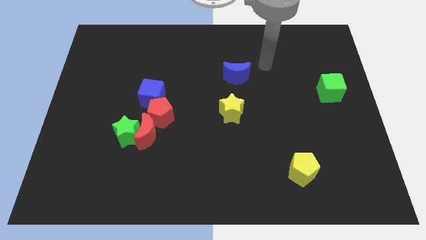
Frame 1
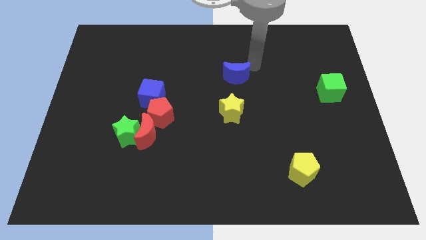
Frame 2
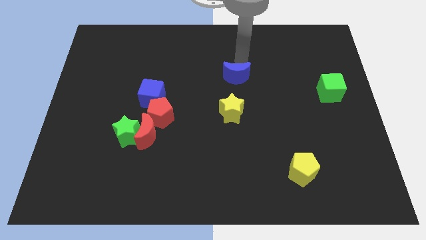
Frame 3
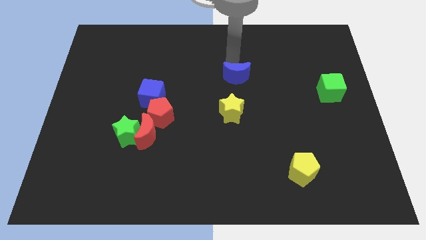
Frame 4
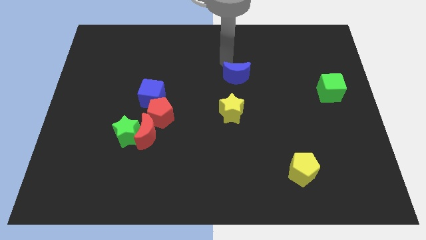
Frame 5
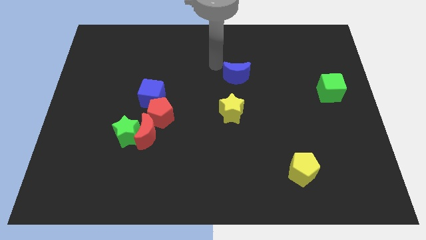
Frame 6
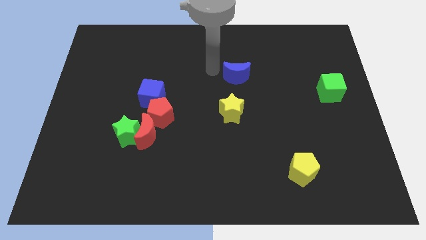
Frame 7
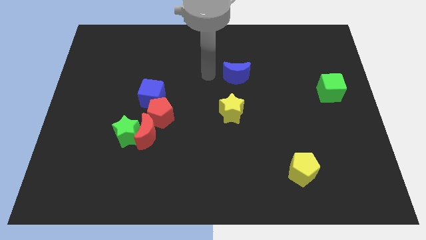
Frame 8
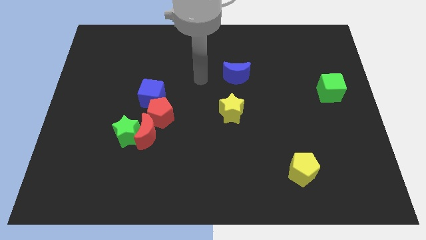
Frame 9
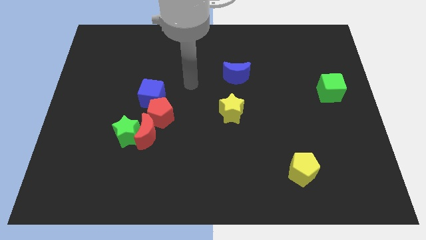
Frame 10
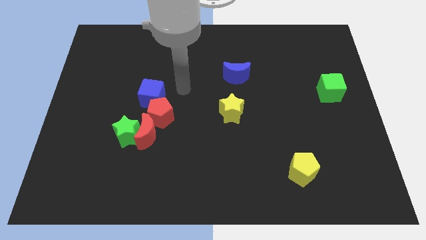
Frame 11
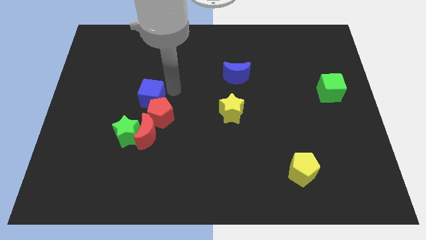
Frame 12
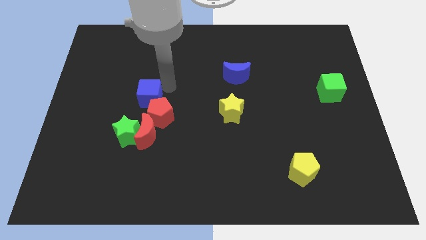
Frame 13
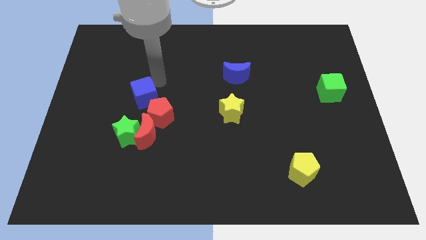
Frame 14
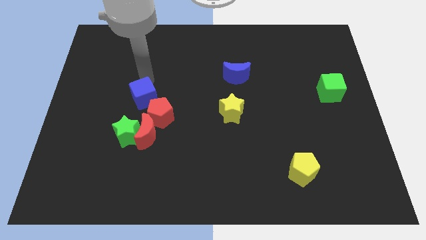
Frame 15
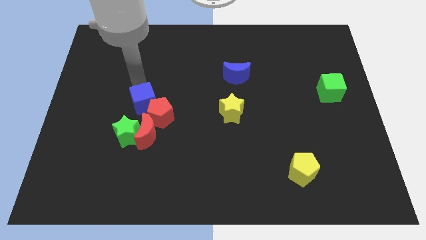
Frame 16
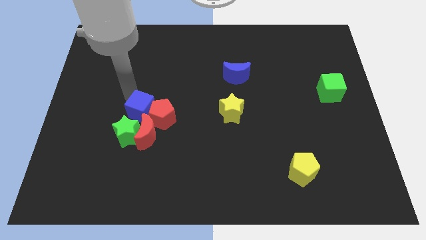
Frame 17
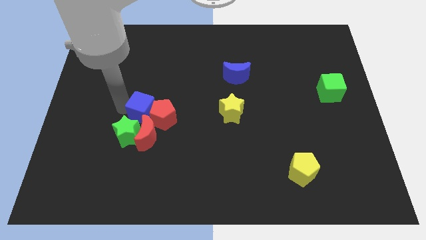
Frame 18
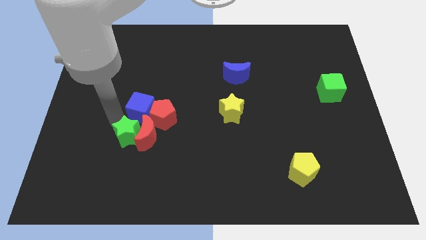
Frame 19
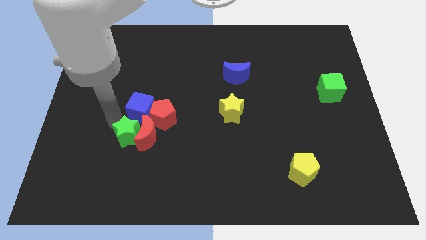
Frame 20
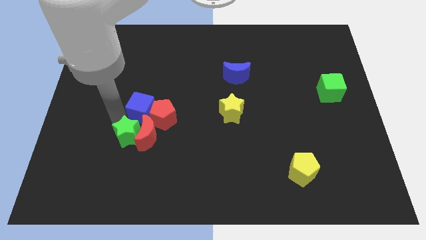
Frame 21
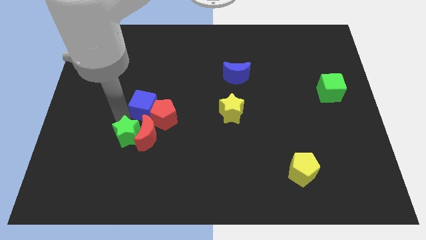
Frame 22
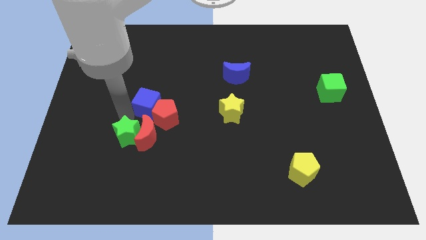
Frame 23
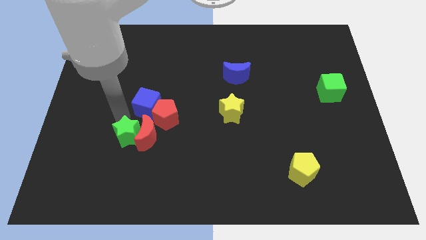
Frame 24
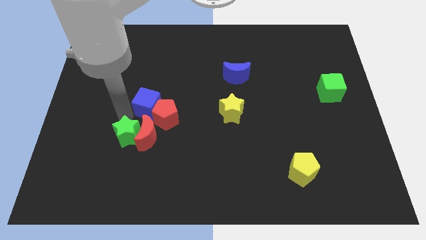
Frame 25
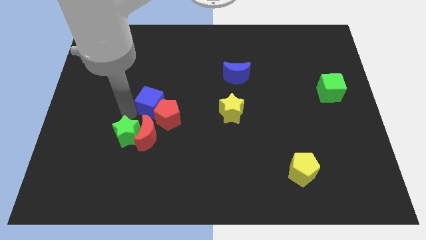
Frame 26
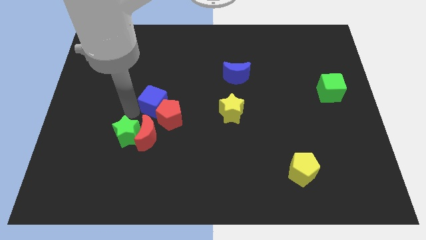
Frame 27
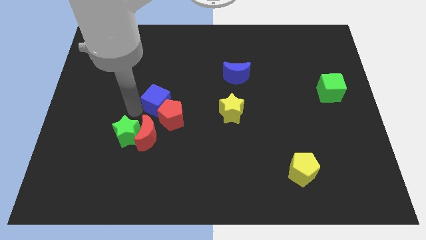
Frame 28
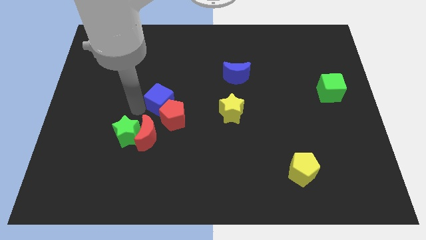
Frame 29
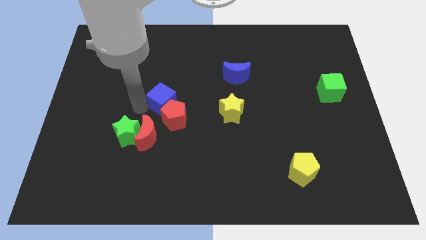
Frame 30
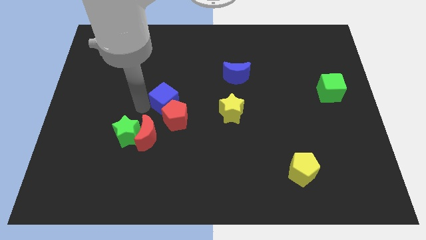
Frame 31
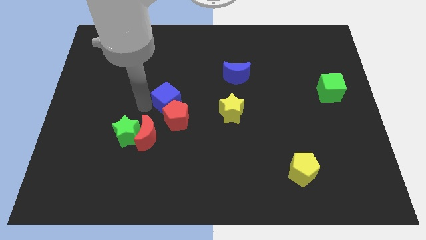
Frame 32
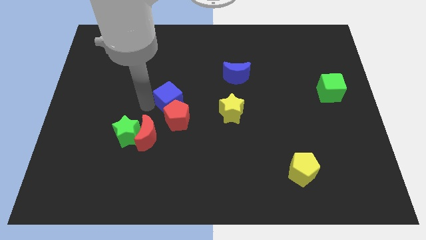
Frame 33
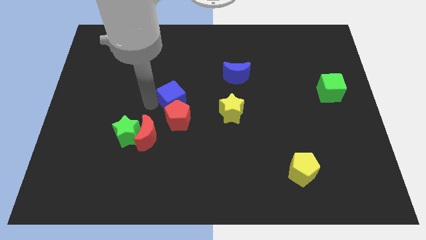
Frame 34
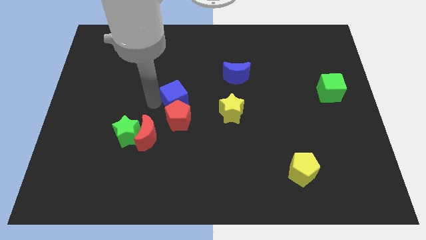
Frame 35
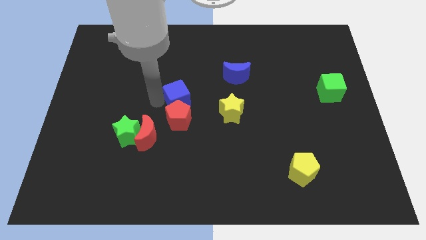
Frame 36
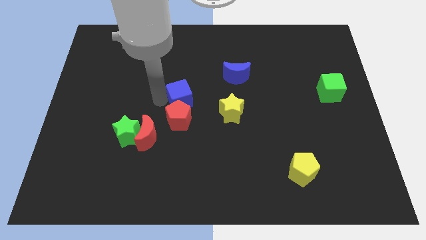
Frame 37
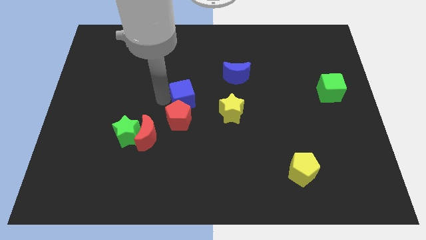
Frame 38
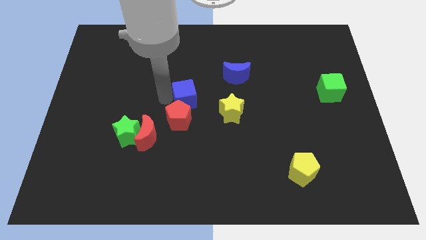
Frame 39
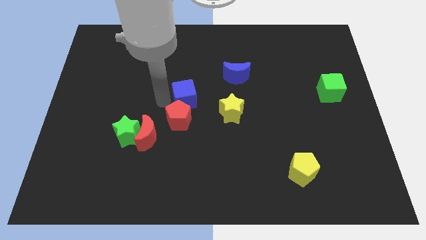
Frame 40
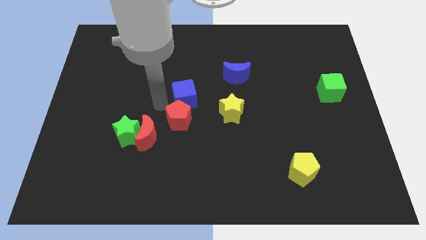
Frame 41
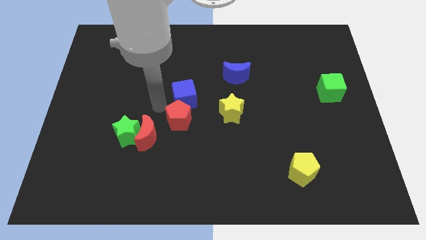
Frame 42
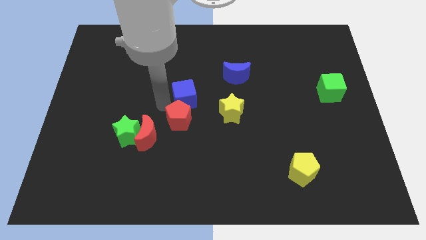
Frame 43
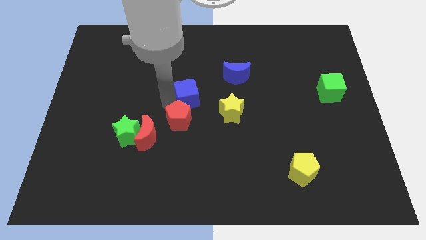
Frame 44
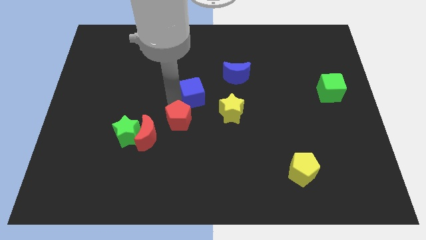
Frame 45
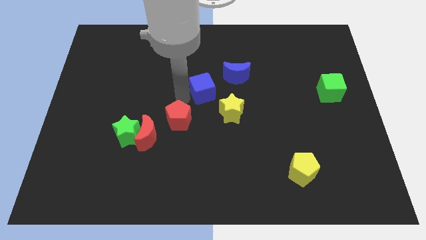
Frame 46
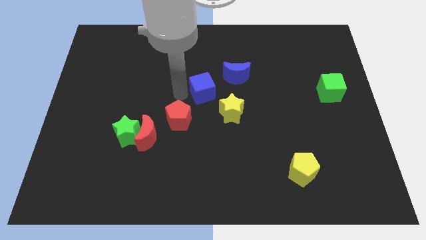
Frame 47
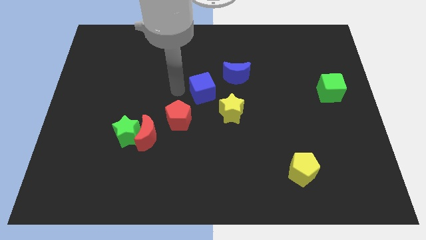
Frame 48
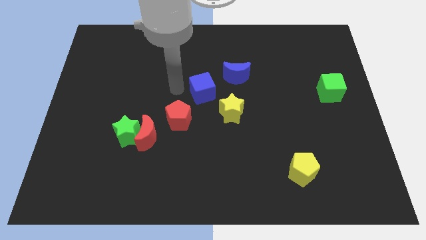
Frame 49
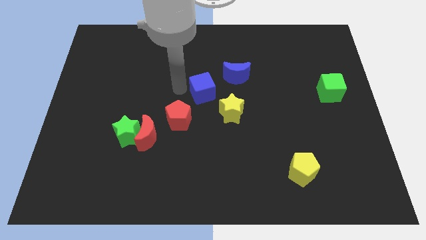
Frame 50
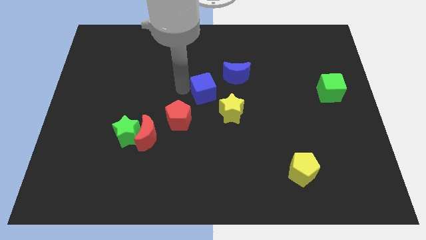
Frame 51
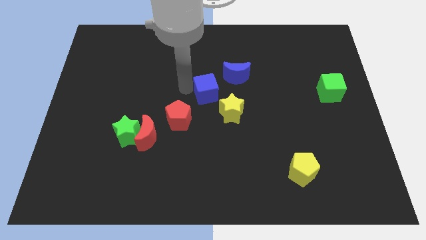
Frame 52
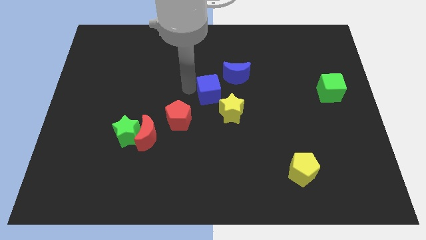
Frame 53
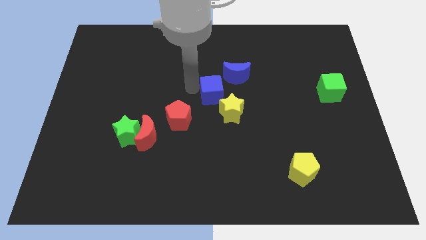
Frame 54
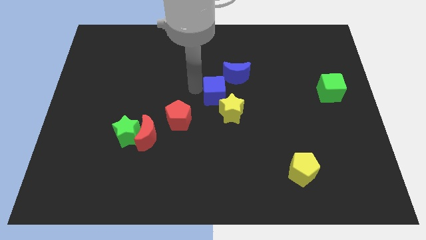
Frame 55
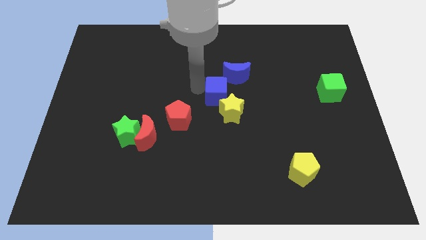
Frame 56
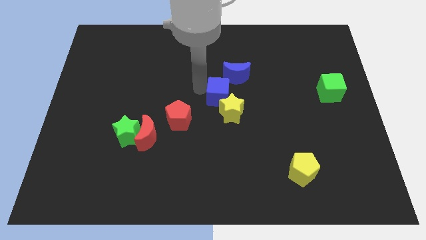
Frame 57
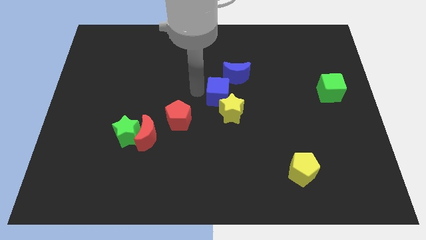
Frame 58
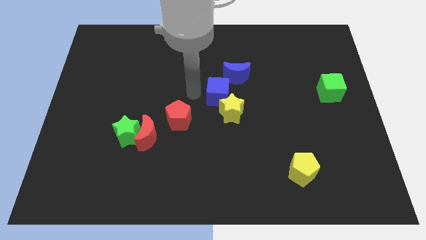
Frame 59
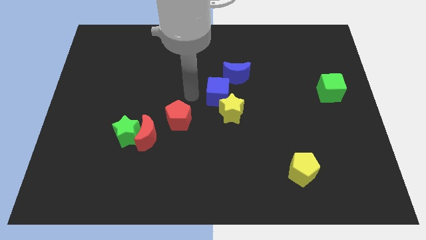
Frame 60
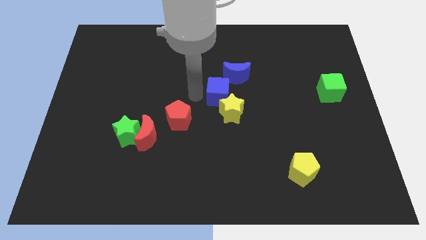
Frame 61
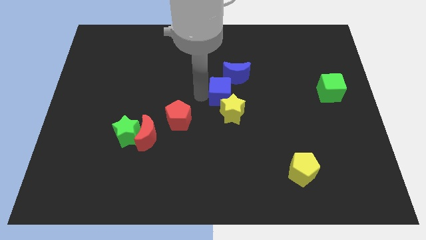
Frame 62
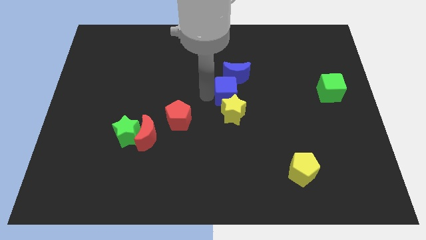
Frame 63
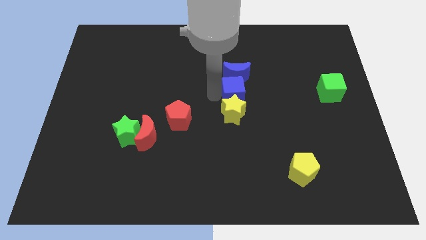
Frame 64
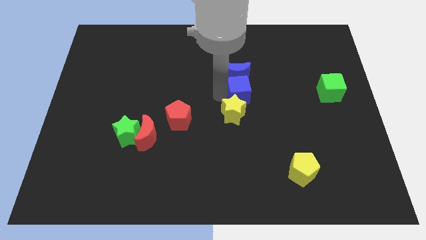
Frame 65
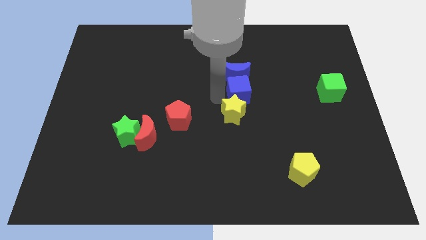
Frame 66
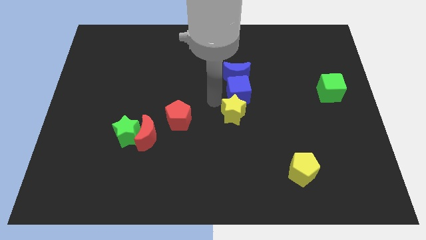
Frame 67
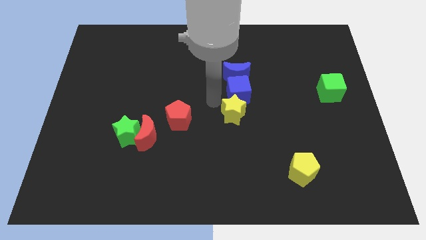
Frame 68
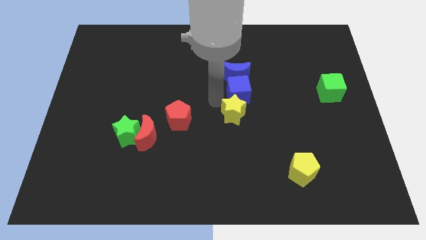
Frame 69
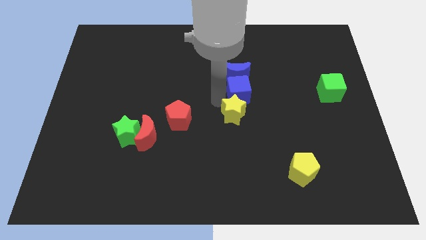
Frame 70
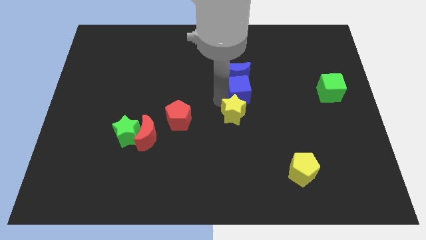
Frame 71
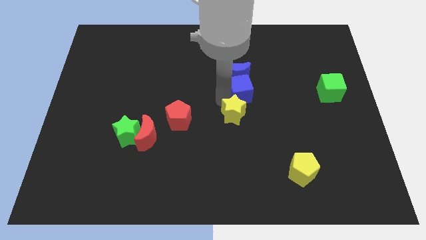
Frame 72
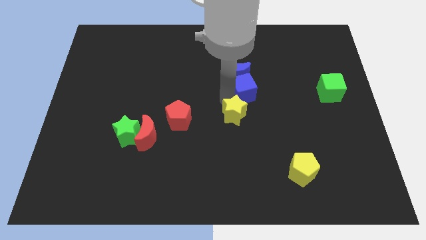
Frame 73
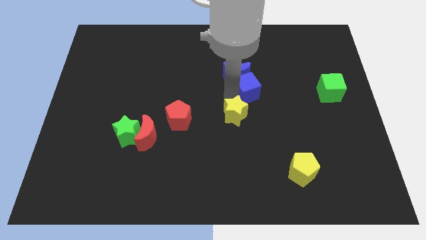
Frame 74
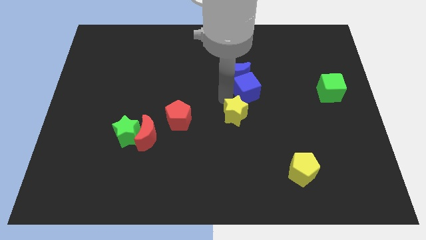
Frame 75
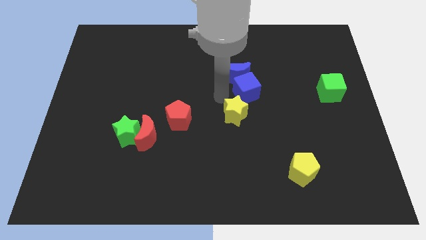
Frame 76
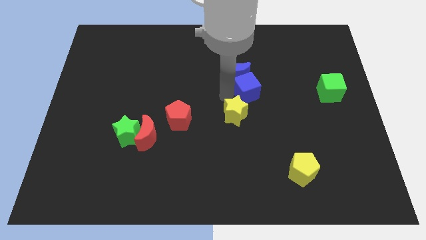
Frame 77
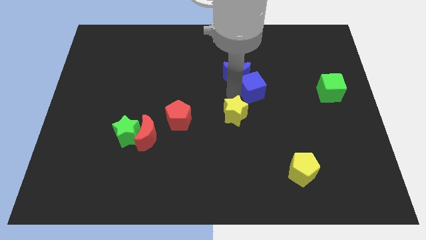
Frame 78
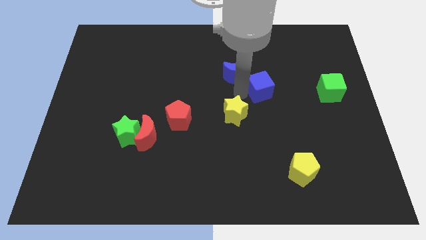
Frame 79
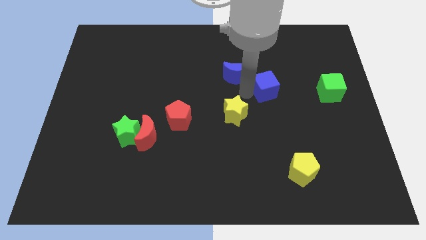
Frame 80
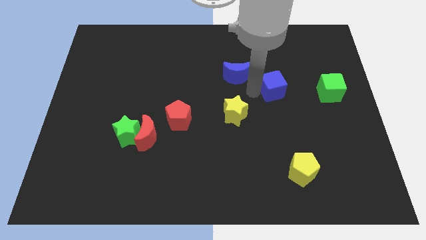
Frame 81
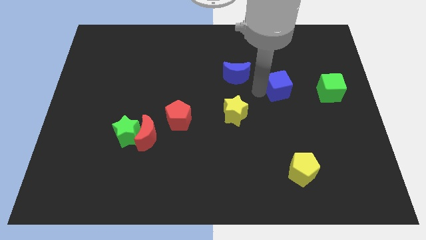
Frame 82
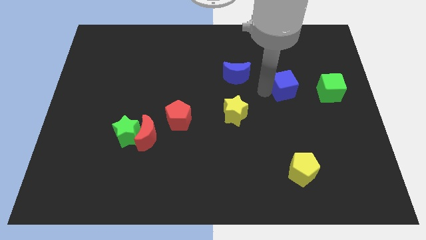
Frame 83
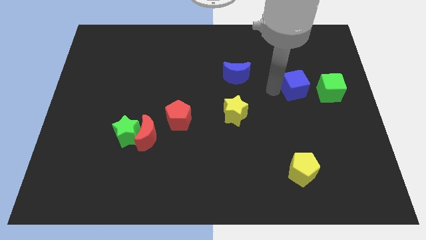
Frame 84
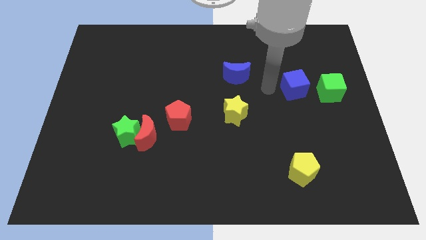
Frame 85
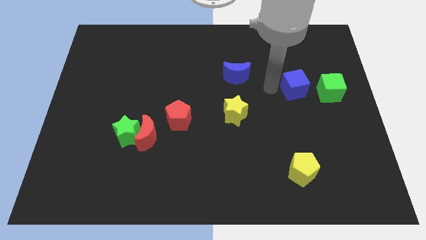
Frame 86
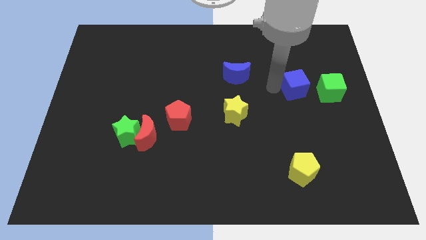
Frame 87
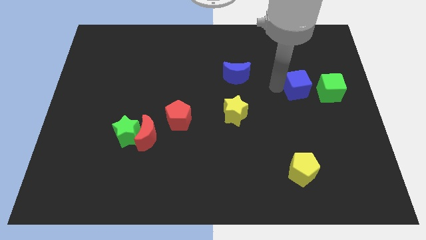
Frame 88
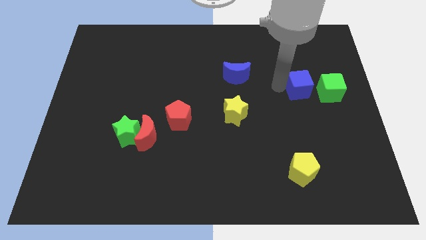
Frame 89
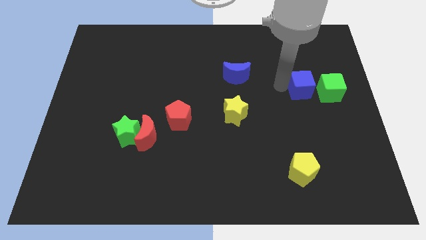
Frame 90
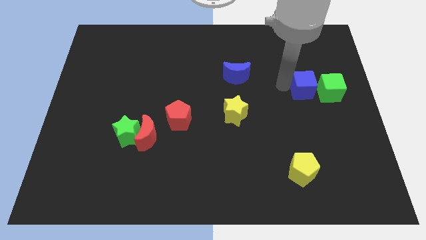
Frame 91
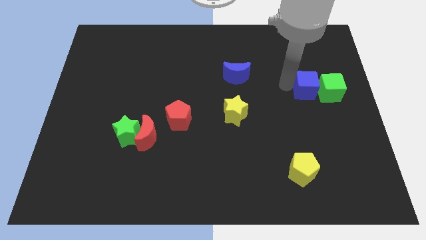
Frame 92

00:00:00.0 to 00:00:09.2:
put the blue cube close to the green cube
